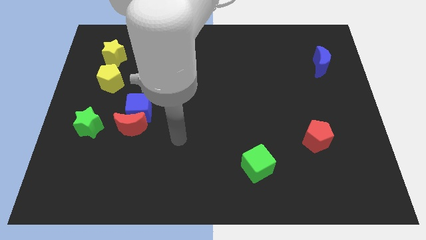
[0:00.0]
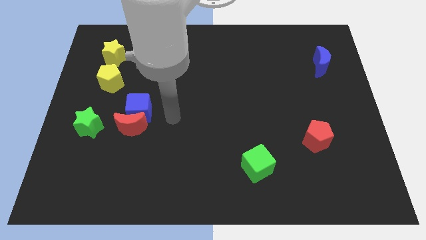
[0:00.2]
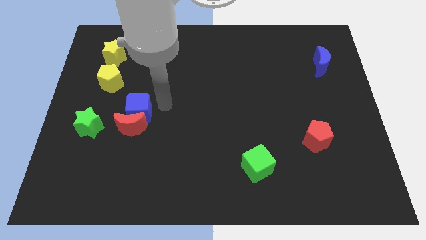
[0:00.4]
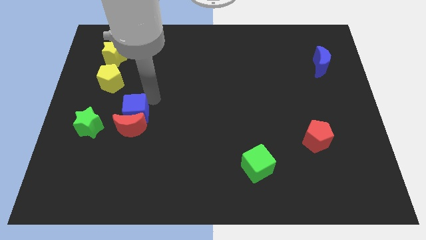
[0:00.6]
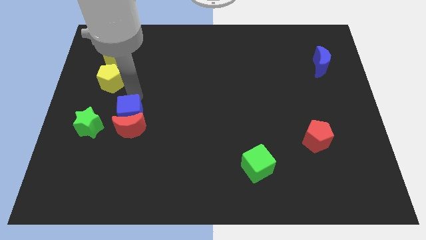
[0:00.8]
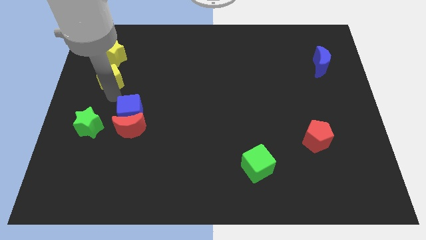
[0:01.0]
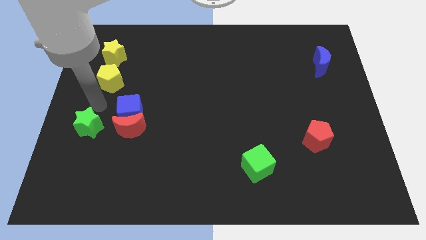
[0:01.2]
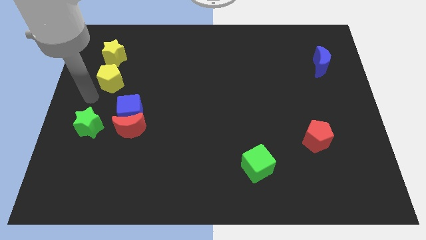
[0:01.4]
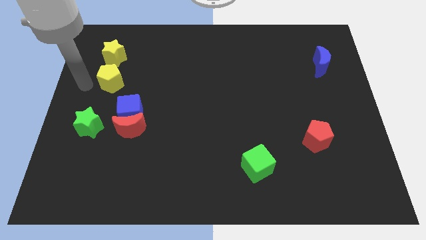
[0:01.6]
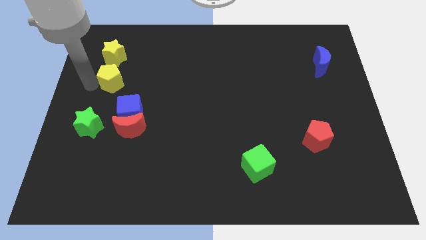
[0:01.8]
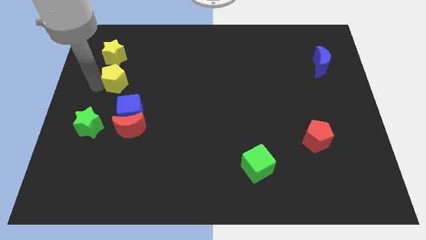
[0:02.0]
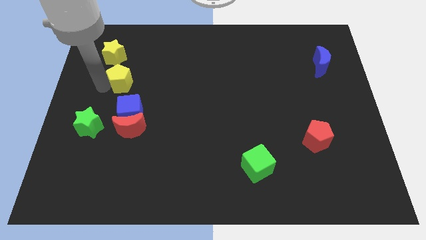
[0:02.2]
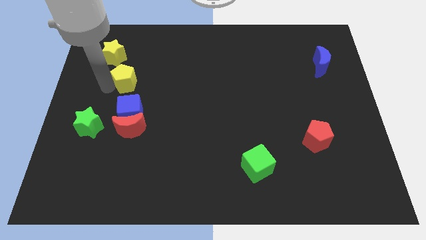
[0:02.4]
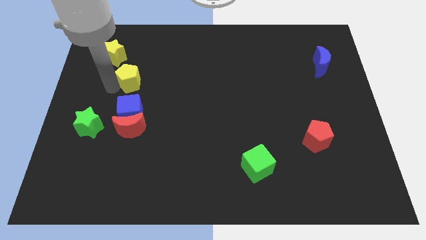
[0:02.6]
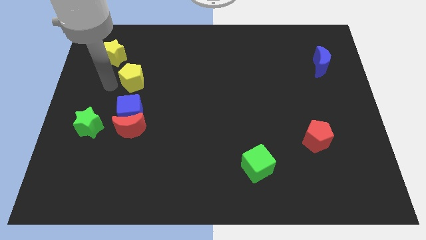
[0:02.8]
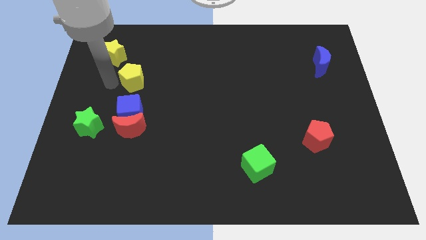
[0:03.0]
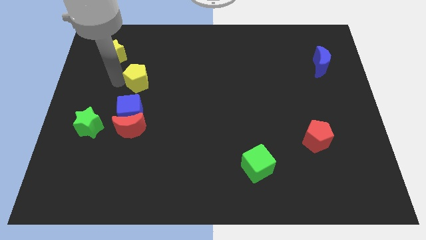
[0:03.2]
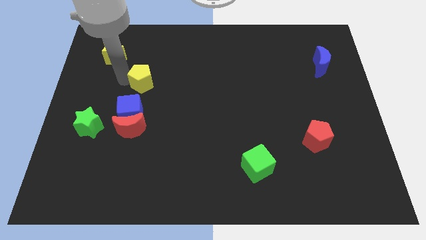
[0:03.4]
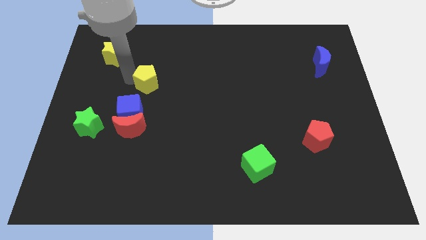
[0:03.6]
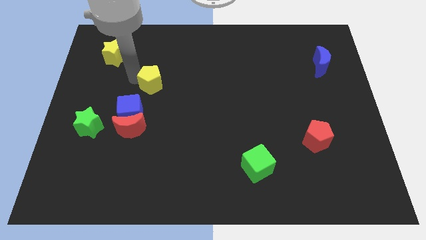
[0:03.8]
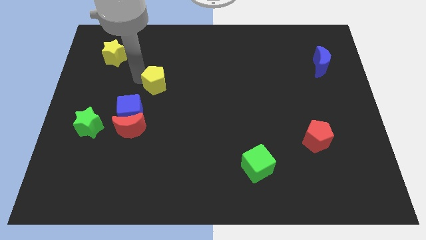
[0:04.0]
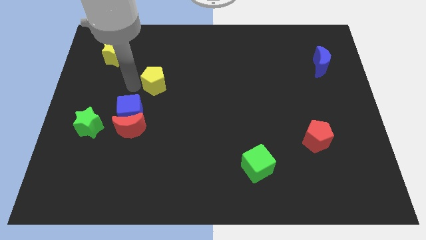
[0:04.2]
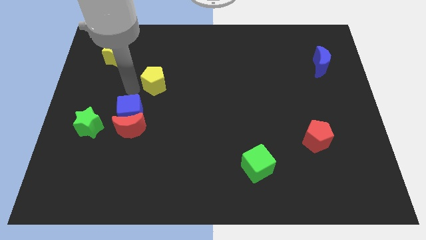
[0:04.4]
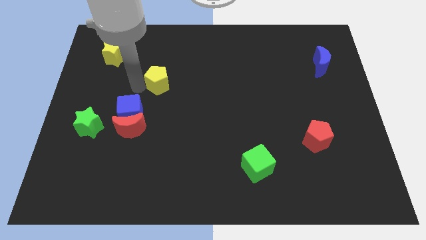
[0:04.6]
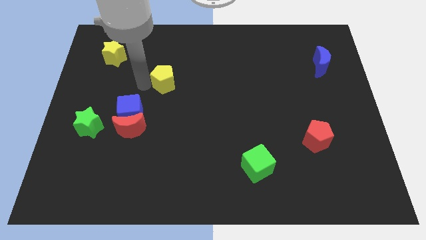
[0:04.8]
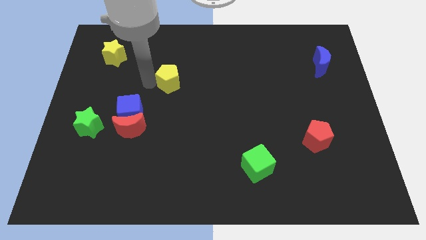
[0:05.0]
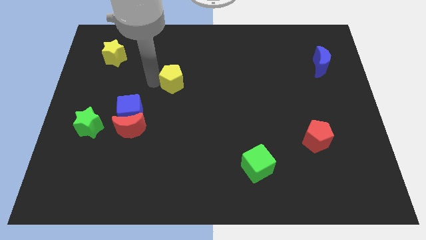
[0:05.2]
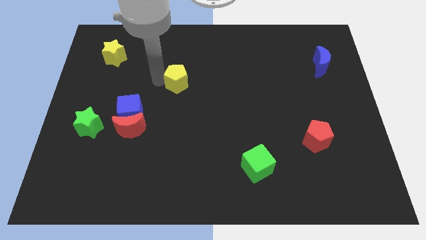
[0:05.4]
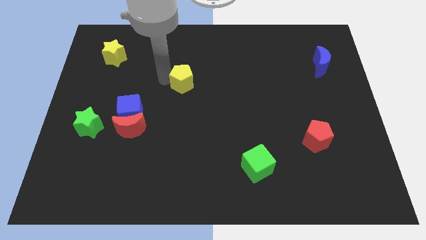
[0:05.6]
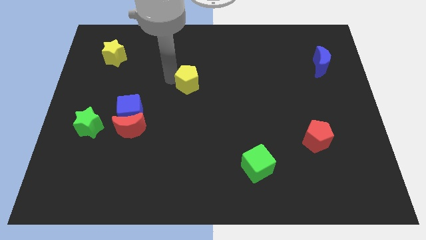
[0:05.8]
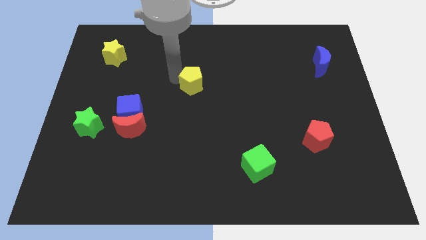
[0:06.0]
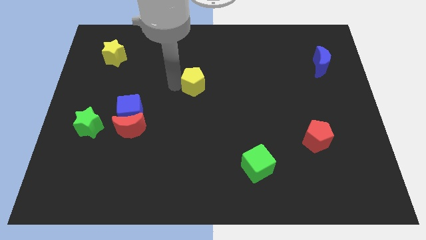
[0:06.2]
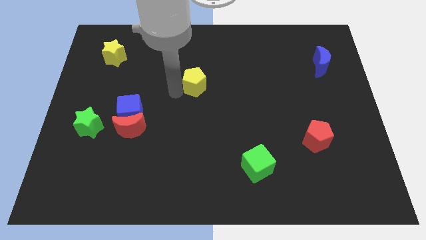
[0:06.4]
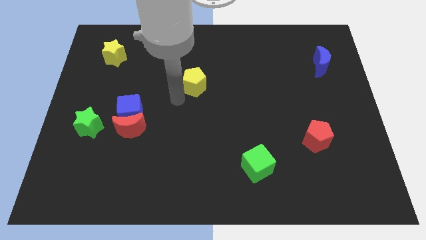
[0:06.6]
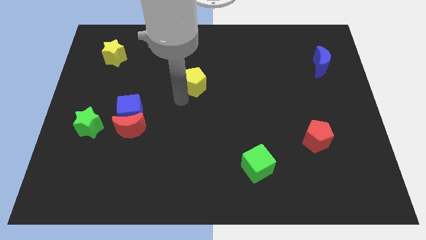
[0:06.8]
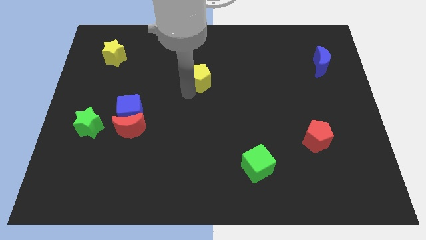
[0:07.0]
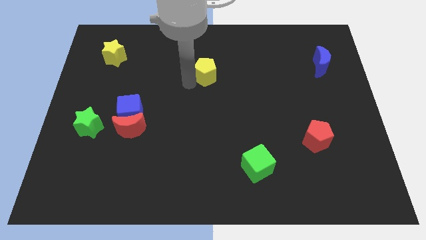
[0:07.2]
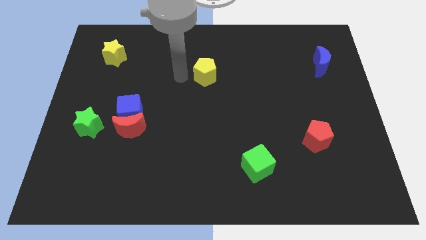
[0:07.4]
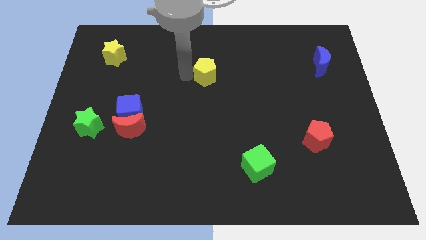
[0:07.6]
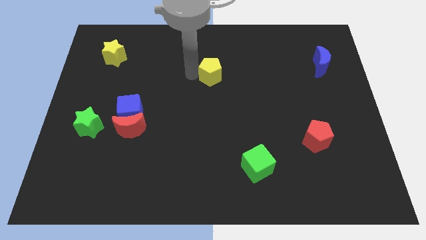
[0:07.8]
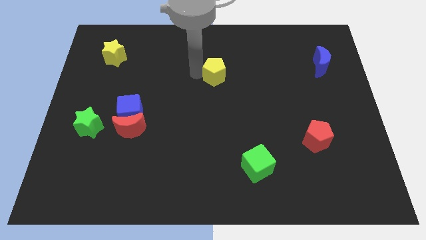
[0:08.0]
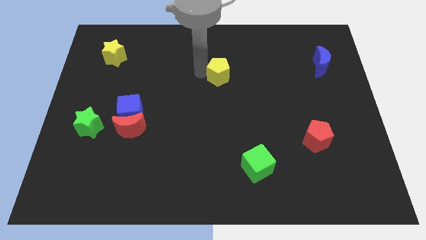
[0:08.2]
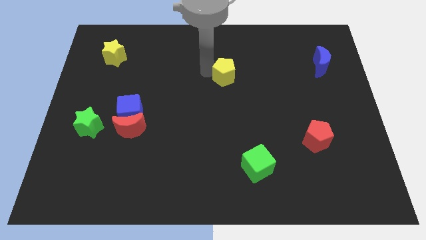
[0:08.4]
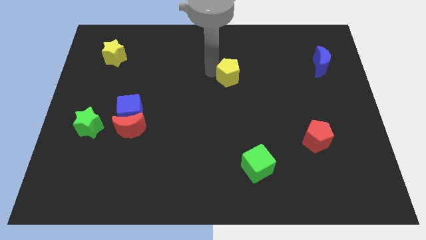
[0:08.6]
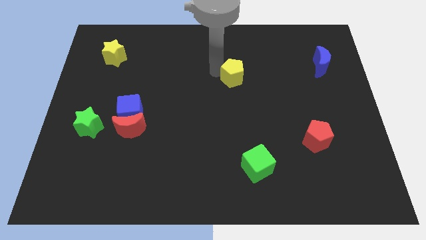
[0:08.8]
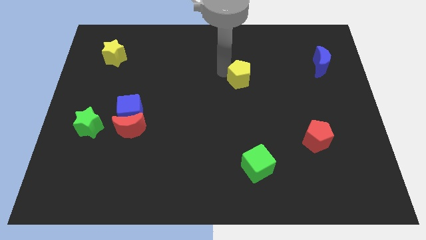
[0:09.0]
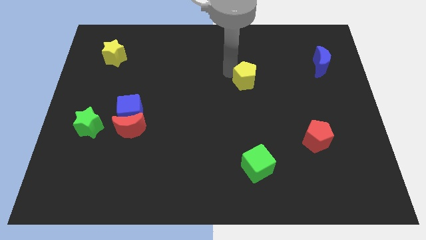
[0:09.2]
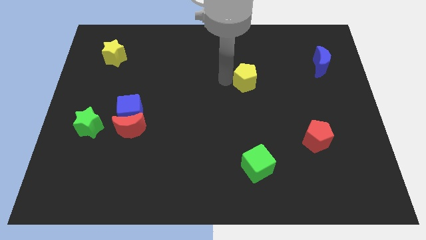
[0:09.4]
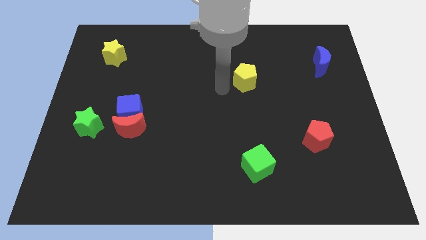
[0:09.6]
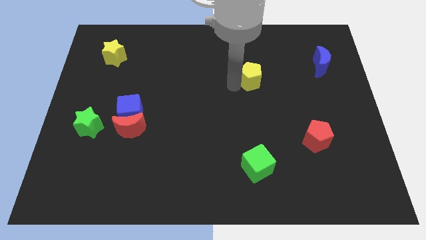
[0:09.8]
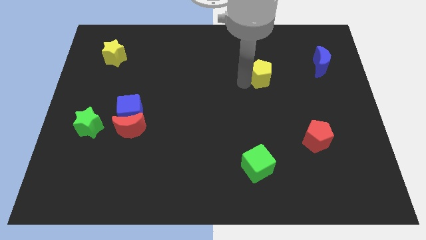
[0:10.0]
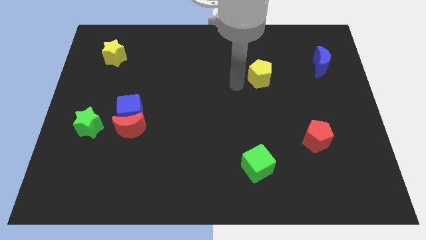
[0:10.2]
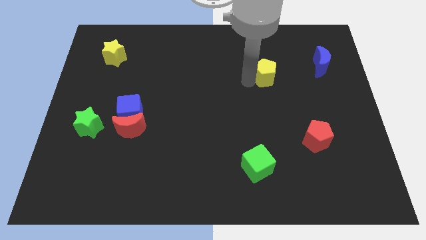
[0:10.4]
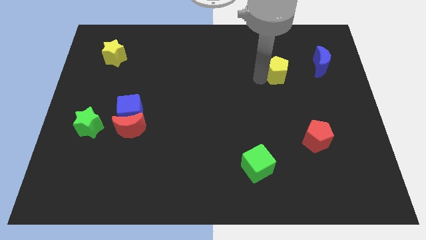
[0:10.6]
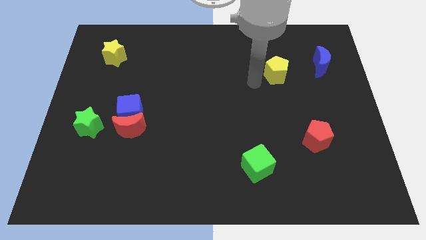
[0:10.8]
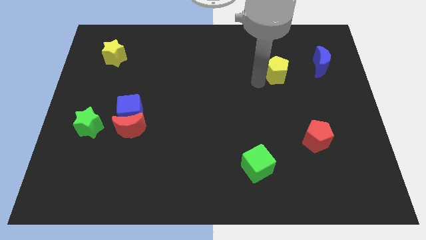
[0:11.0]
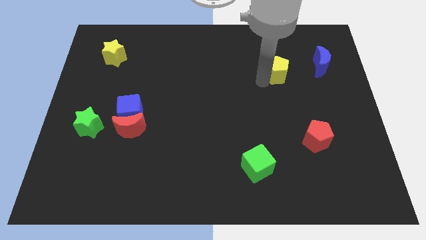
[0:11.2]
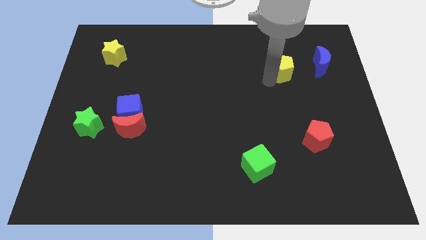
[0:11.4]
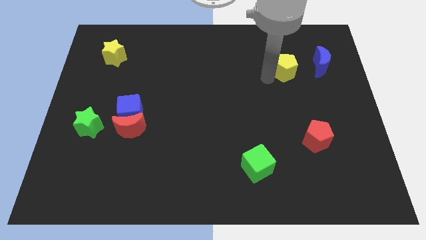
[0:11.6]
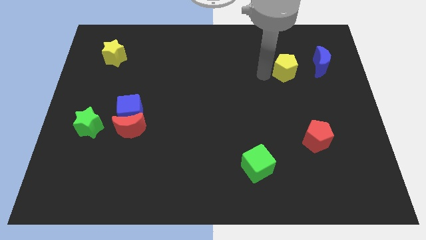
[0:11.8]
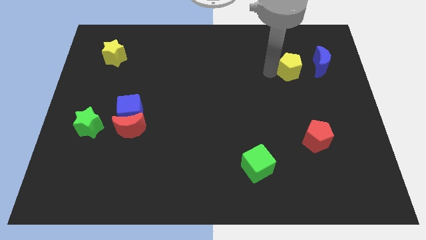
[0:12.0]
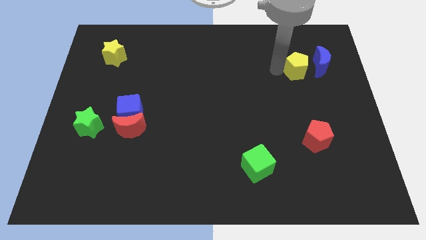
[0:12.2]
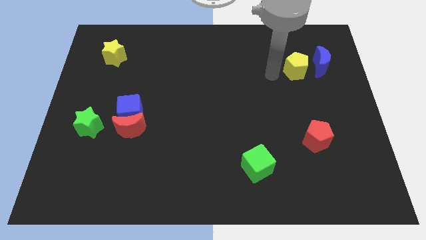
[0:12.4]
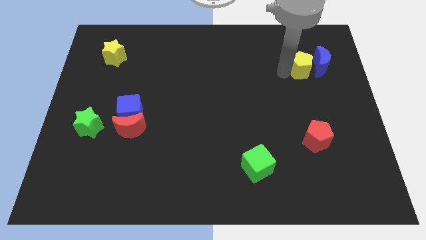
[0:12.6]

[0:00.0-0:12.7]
slide the yellow pentagon to the blue moon

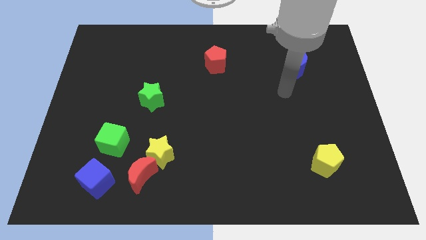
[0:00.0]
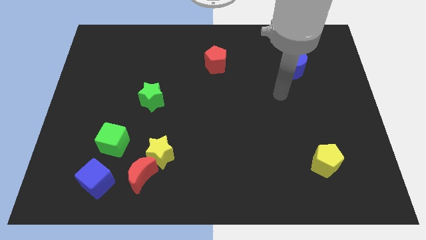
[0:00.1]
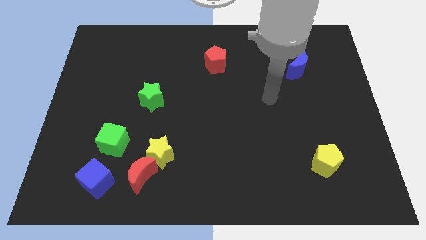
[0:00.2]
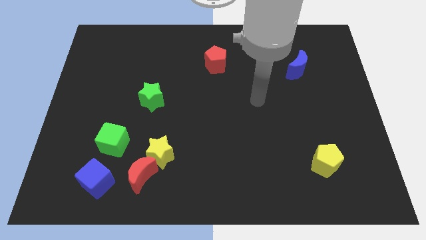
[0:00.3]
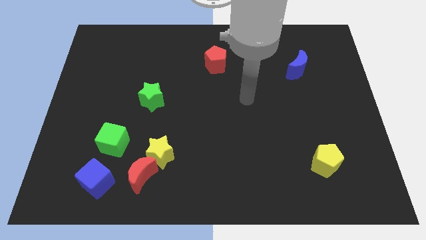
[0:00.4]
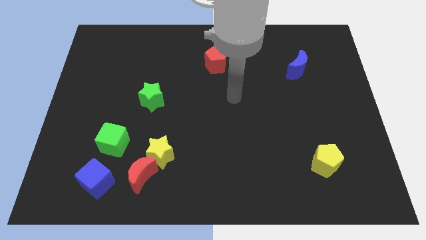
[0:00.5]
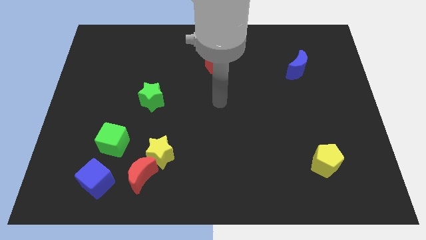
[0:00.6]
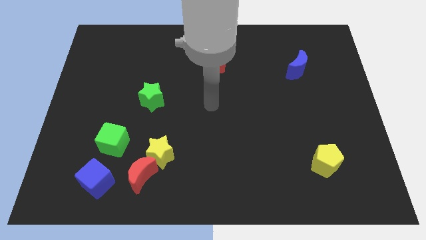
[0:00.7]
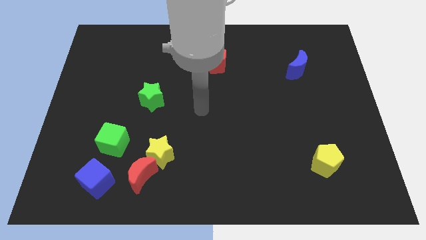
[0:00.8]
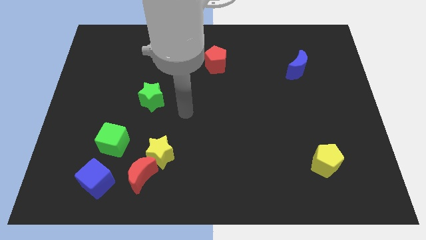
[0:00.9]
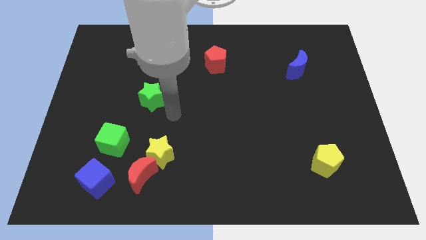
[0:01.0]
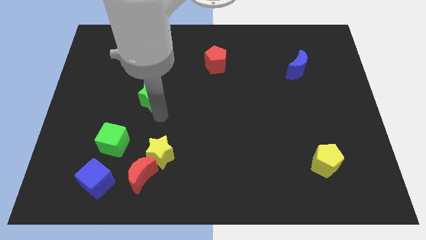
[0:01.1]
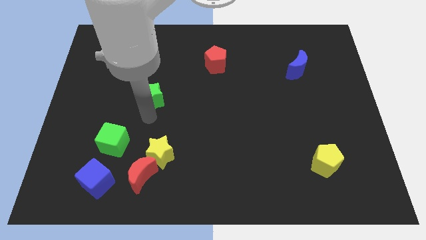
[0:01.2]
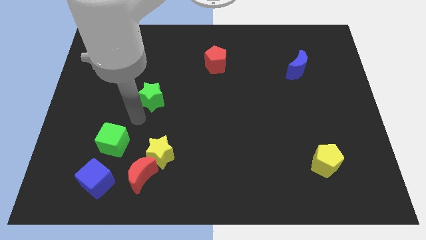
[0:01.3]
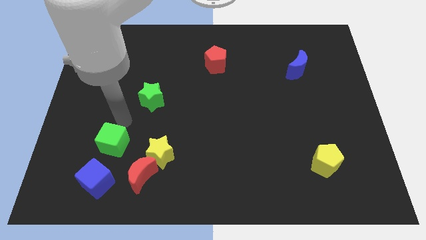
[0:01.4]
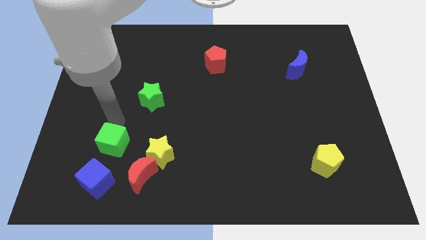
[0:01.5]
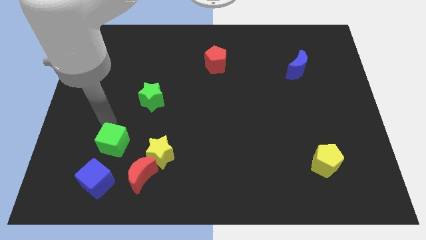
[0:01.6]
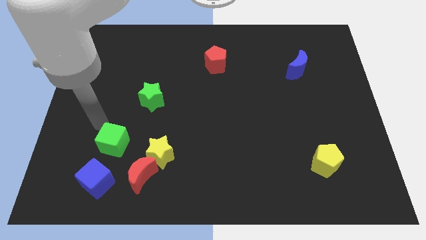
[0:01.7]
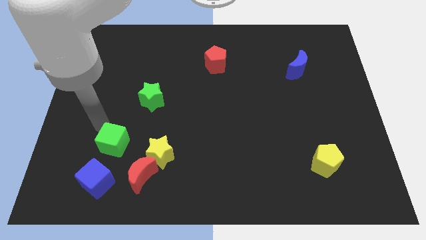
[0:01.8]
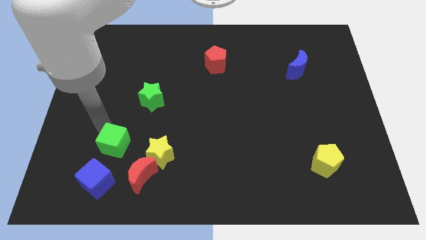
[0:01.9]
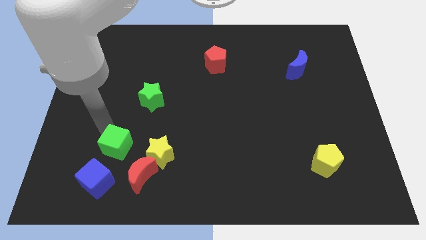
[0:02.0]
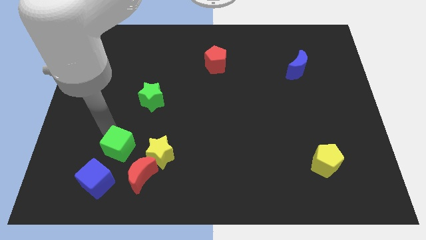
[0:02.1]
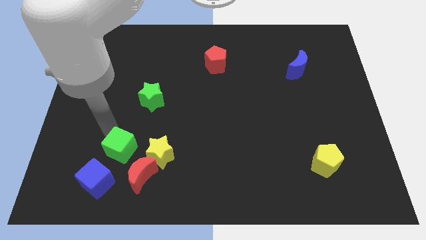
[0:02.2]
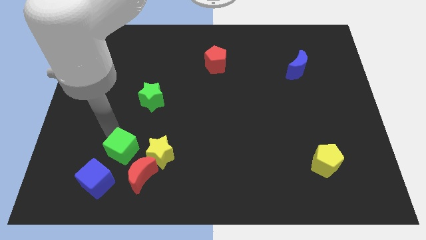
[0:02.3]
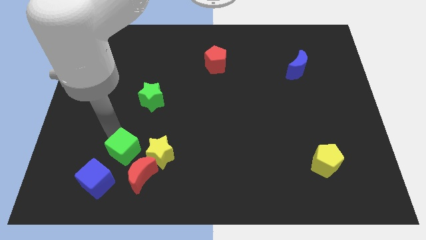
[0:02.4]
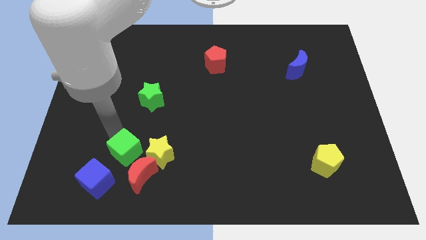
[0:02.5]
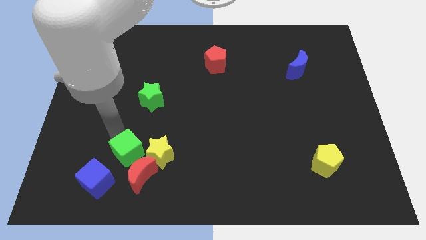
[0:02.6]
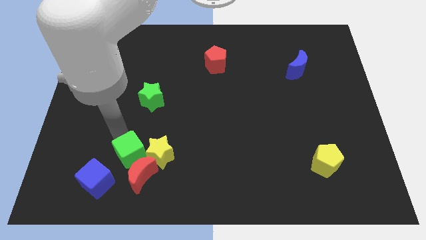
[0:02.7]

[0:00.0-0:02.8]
slide the green cube next to the red moon
